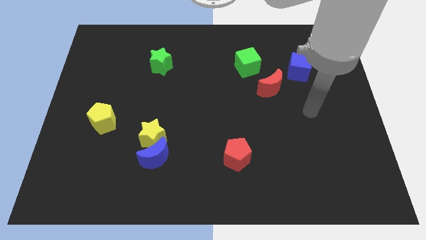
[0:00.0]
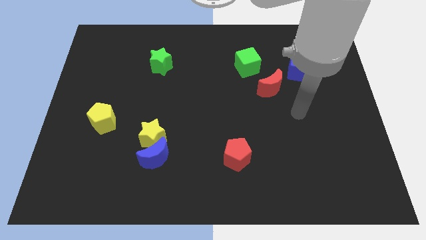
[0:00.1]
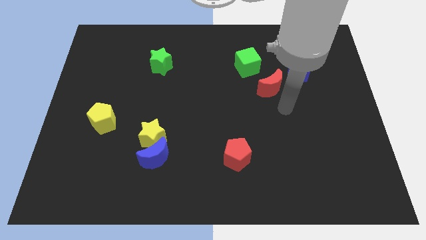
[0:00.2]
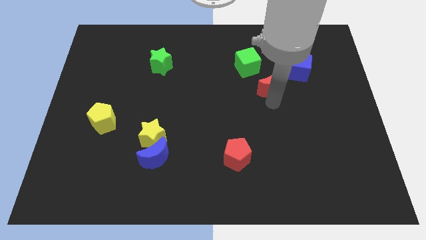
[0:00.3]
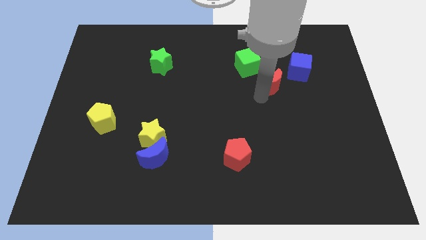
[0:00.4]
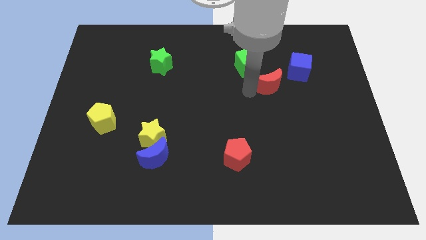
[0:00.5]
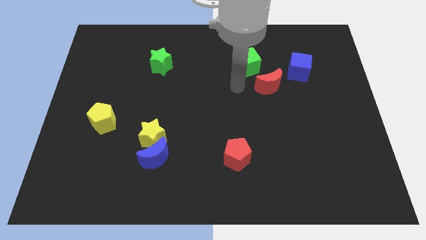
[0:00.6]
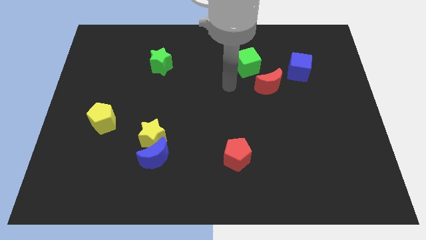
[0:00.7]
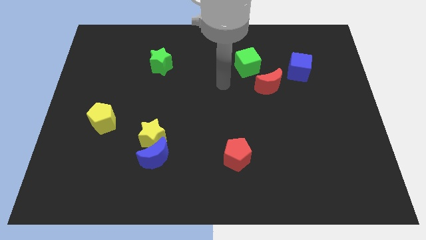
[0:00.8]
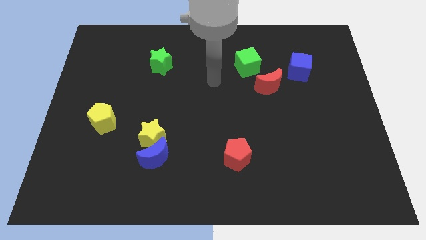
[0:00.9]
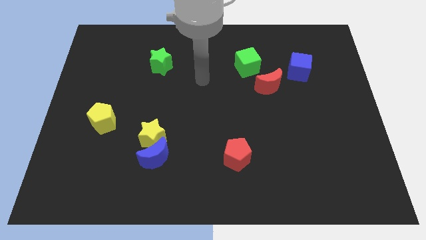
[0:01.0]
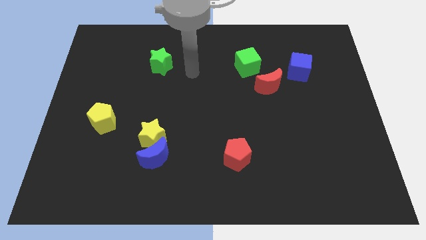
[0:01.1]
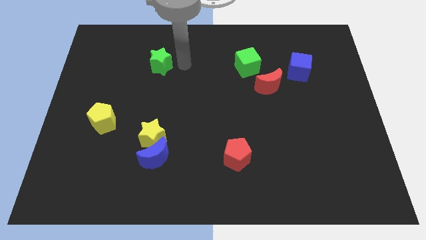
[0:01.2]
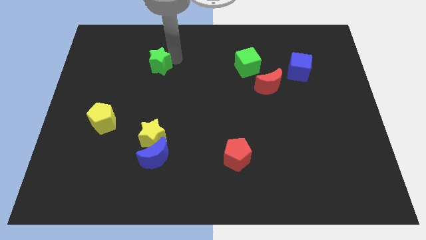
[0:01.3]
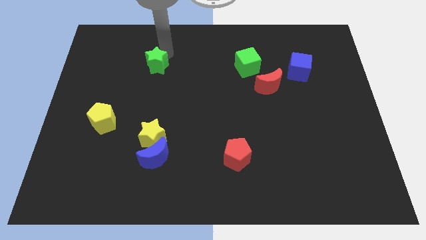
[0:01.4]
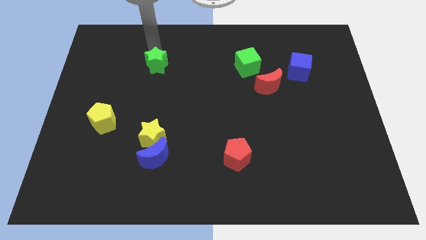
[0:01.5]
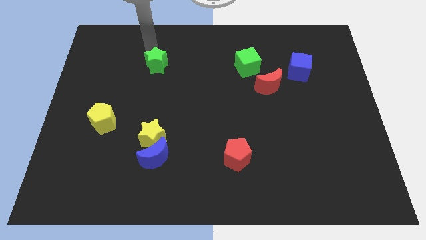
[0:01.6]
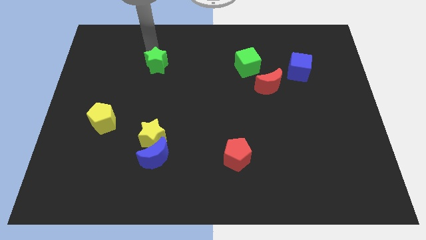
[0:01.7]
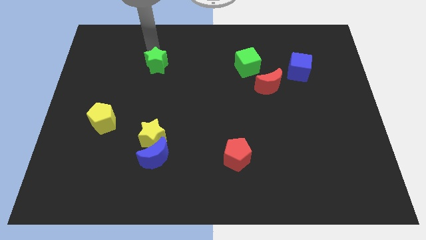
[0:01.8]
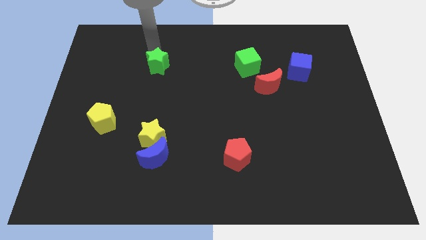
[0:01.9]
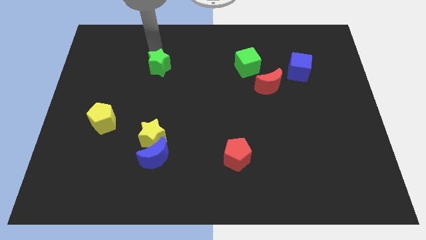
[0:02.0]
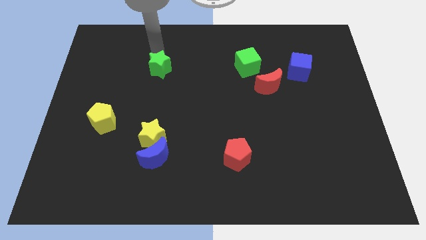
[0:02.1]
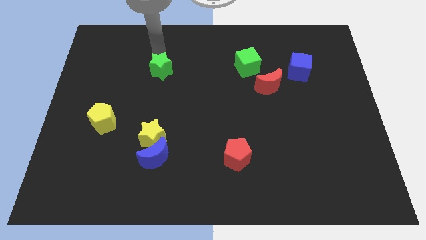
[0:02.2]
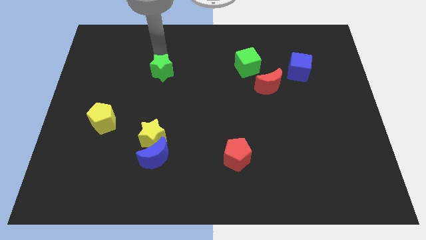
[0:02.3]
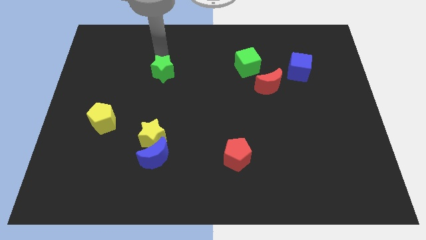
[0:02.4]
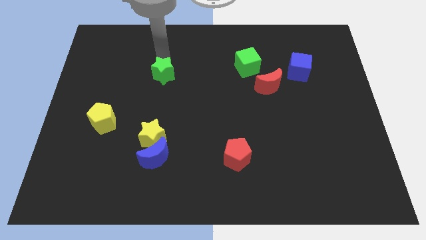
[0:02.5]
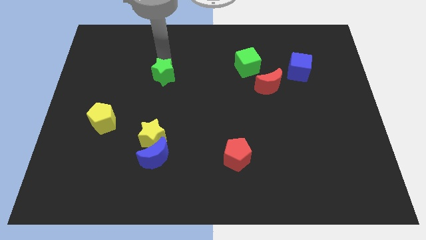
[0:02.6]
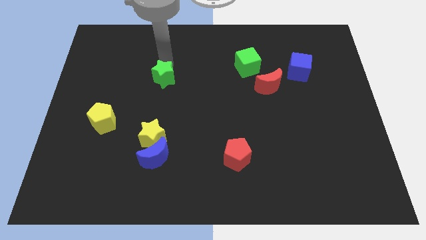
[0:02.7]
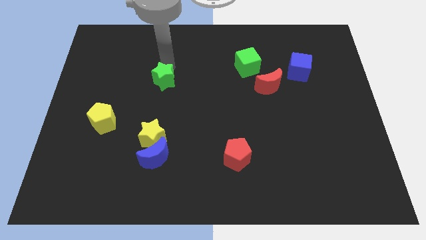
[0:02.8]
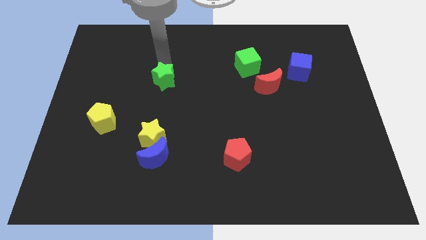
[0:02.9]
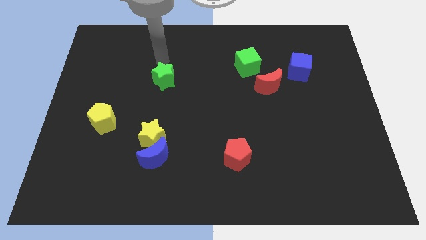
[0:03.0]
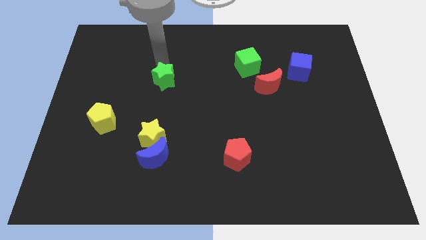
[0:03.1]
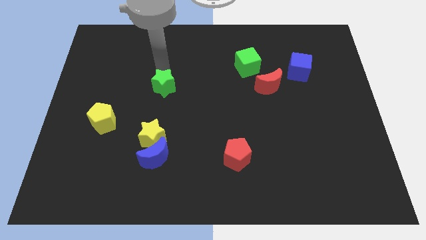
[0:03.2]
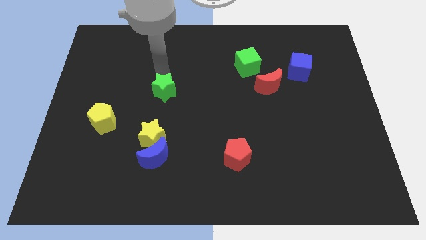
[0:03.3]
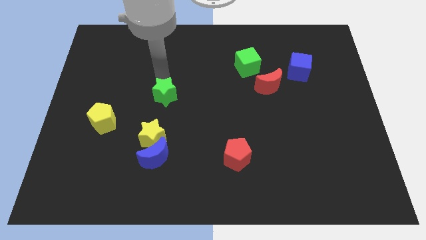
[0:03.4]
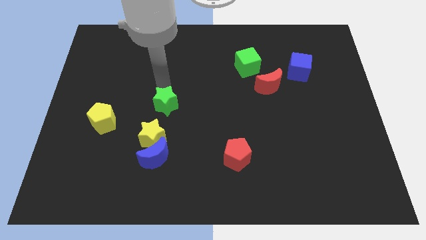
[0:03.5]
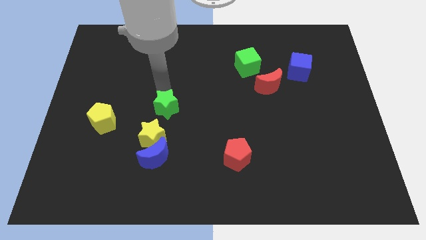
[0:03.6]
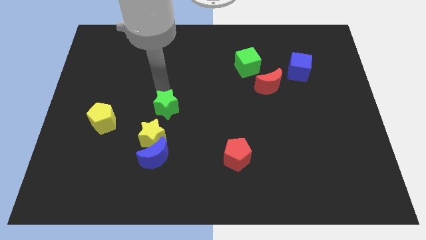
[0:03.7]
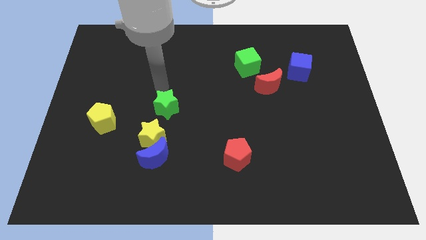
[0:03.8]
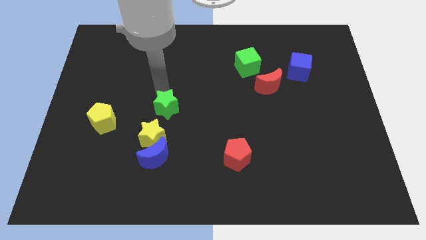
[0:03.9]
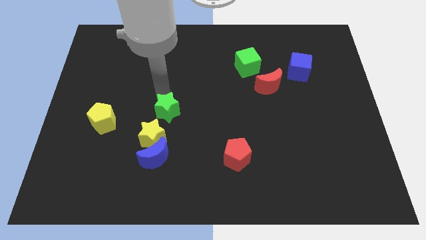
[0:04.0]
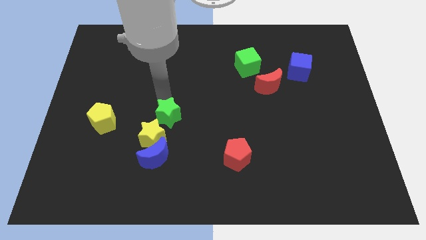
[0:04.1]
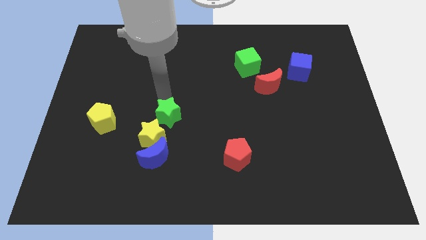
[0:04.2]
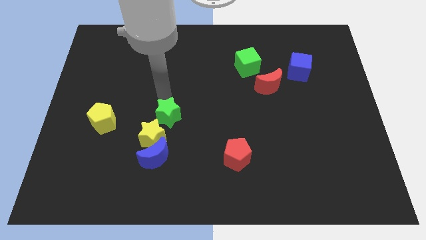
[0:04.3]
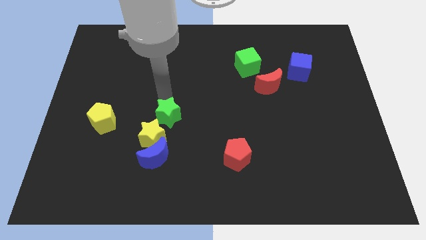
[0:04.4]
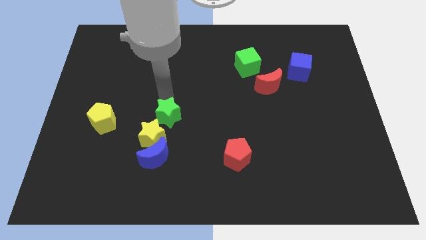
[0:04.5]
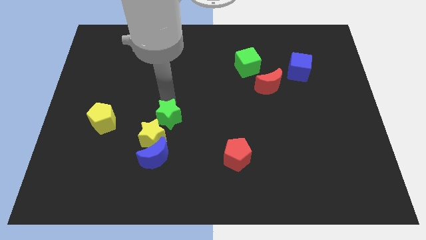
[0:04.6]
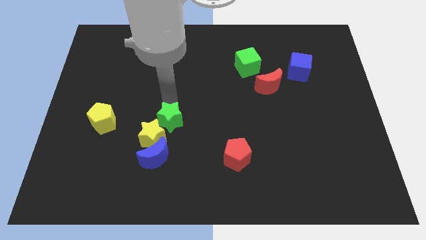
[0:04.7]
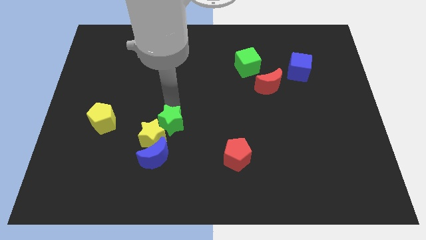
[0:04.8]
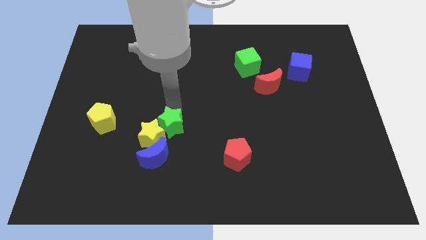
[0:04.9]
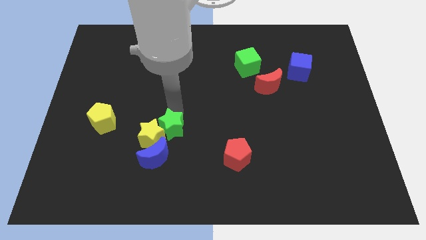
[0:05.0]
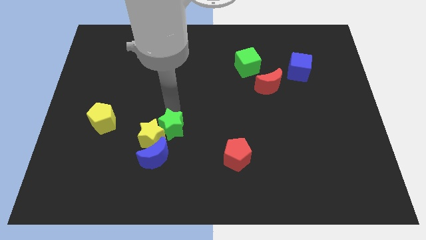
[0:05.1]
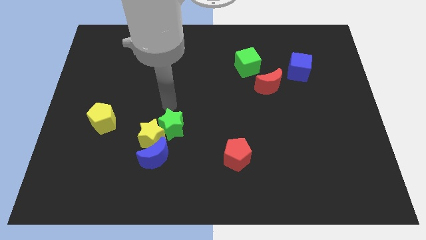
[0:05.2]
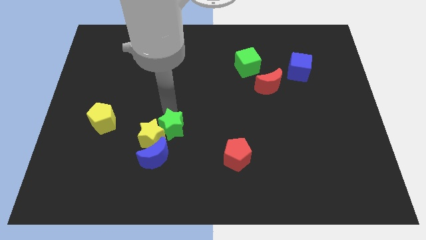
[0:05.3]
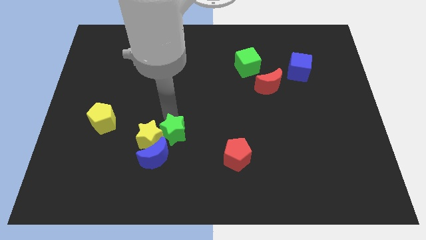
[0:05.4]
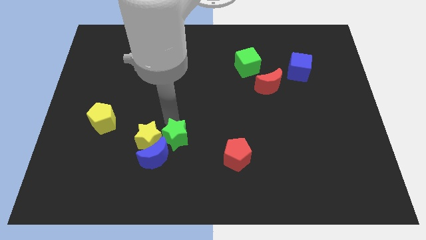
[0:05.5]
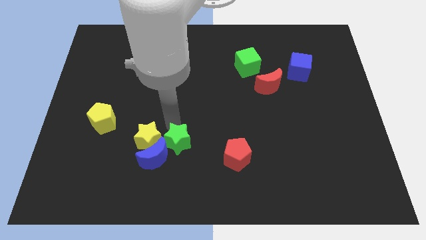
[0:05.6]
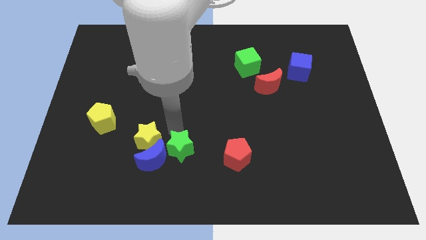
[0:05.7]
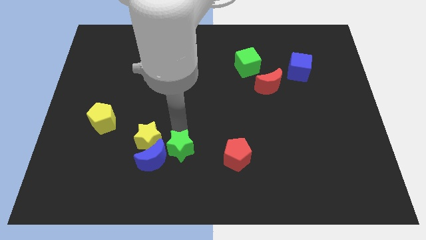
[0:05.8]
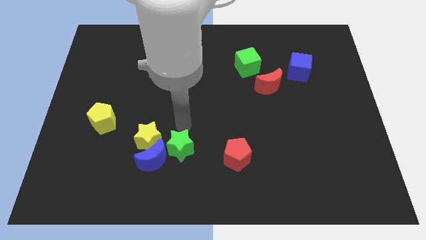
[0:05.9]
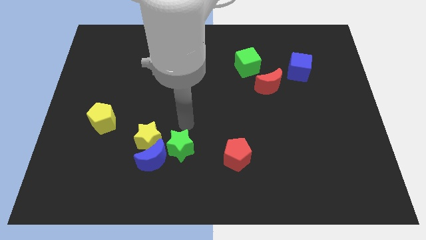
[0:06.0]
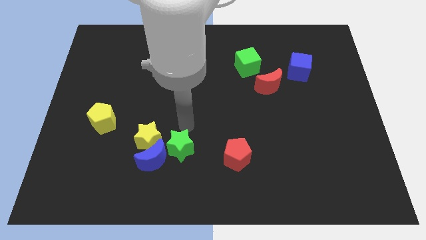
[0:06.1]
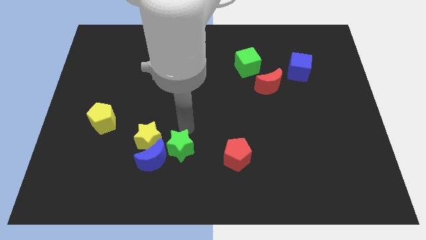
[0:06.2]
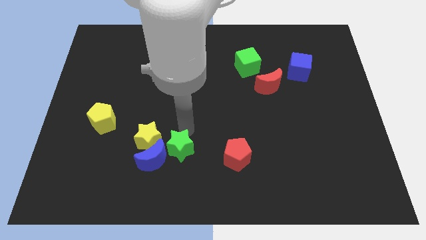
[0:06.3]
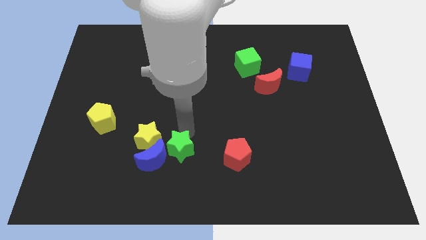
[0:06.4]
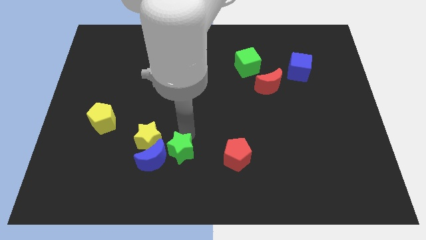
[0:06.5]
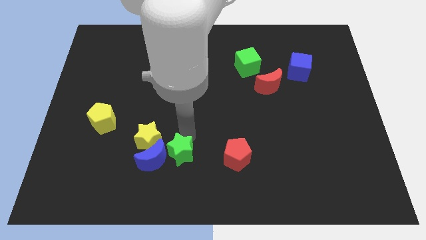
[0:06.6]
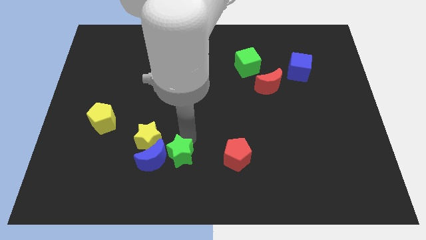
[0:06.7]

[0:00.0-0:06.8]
put the green star to the bottom right side of the blue moon
